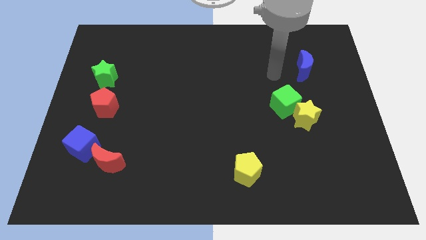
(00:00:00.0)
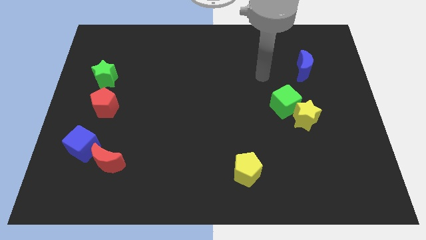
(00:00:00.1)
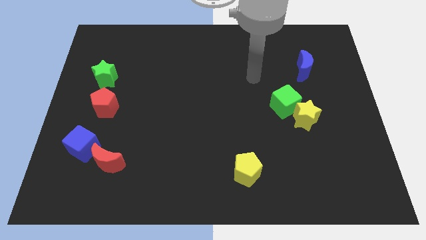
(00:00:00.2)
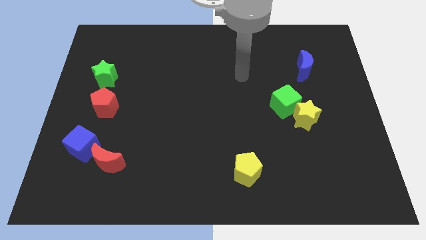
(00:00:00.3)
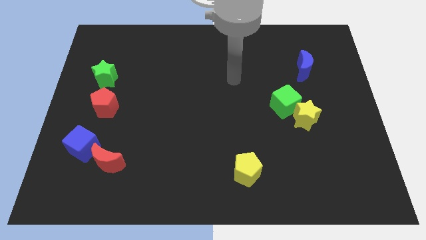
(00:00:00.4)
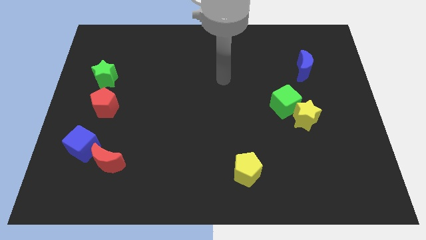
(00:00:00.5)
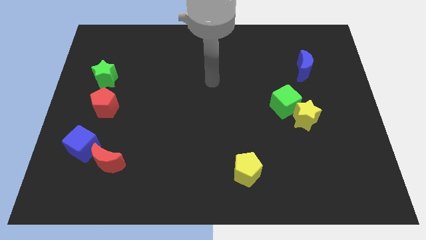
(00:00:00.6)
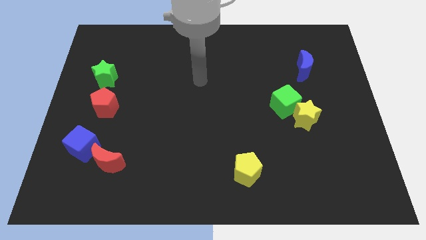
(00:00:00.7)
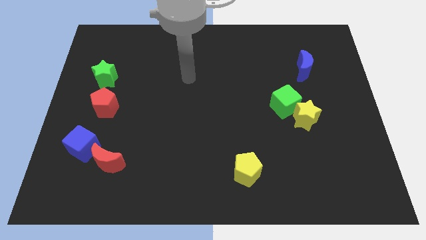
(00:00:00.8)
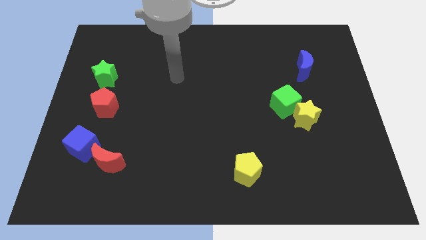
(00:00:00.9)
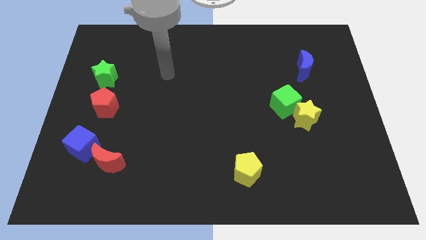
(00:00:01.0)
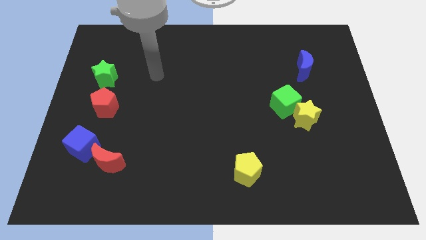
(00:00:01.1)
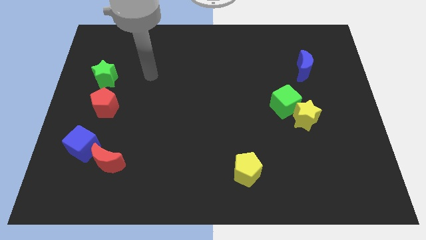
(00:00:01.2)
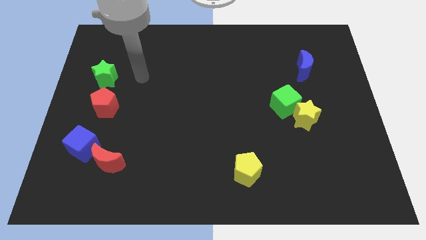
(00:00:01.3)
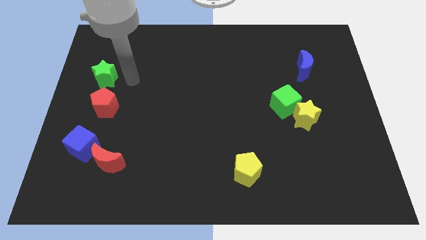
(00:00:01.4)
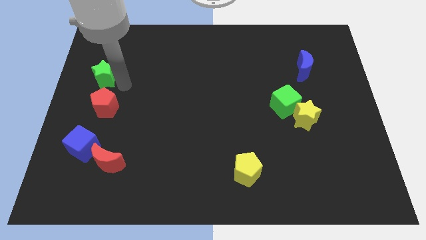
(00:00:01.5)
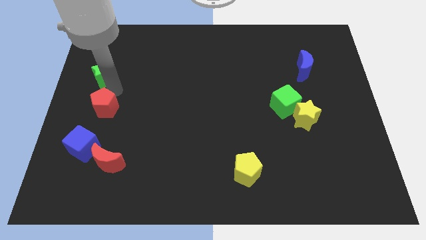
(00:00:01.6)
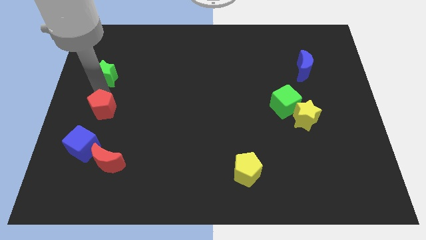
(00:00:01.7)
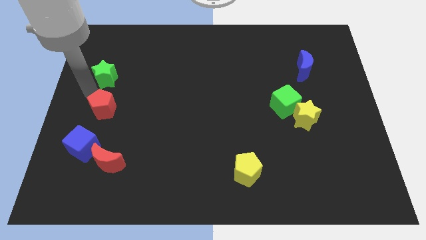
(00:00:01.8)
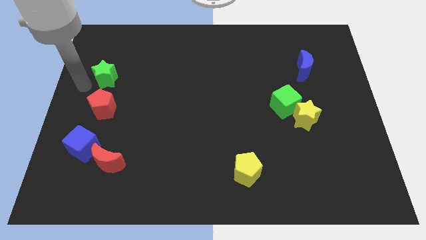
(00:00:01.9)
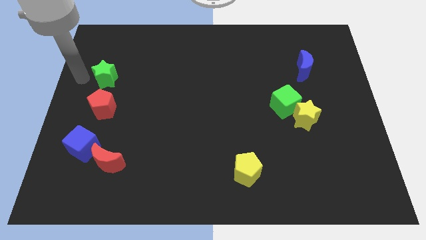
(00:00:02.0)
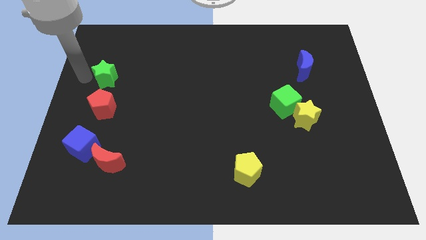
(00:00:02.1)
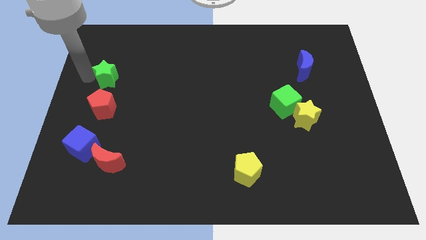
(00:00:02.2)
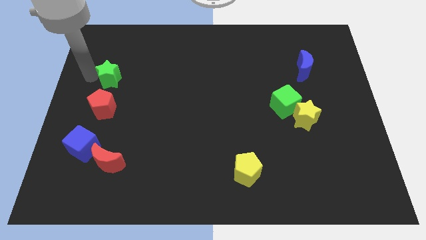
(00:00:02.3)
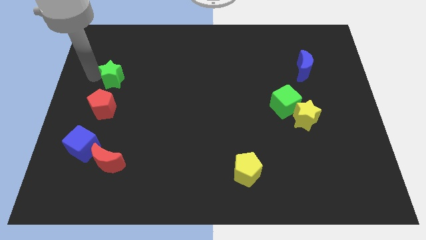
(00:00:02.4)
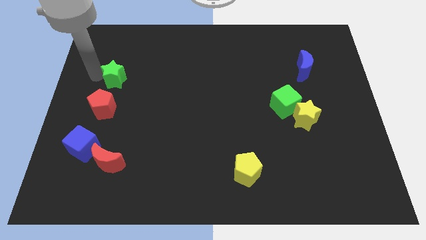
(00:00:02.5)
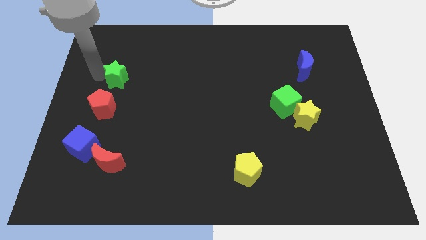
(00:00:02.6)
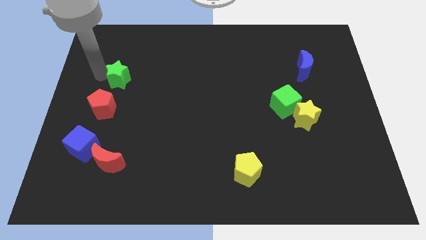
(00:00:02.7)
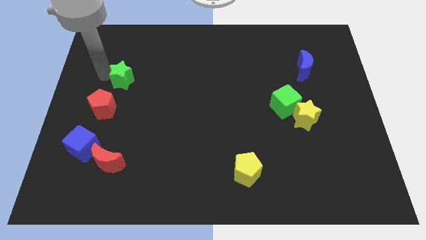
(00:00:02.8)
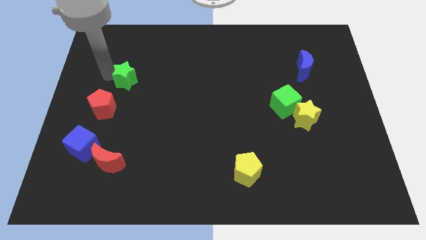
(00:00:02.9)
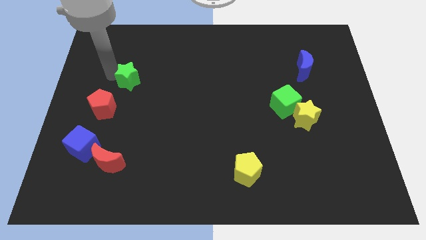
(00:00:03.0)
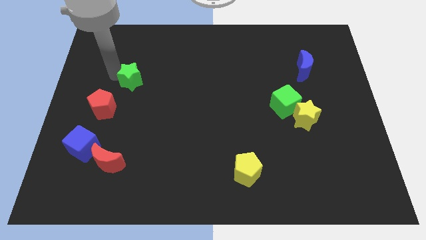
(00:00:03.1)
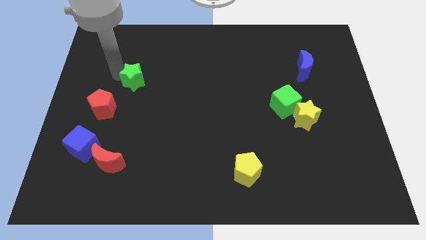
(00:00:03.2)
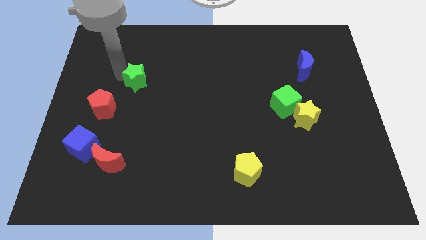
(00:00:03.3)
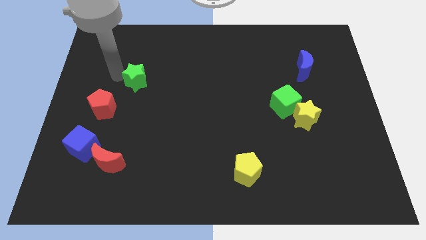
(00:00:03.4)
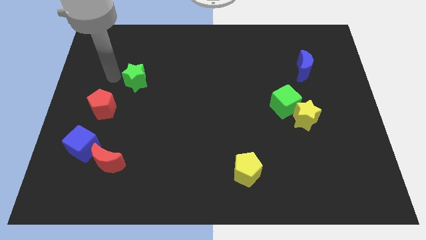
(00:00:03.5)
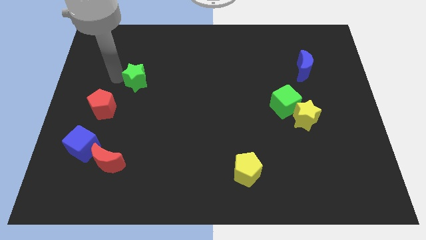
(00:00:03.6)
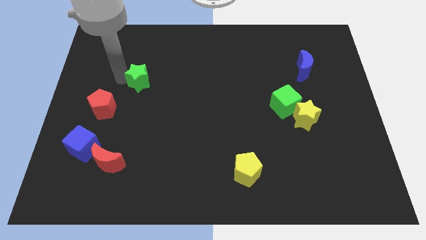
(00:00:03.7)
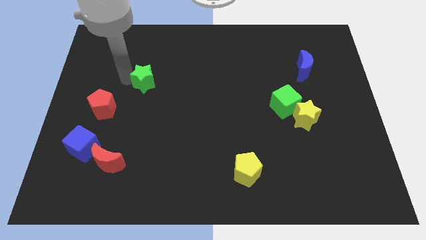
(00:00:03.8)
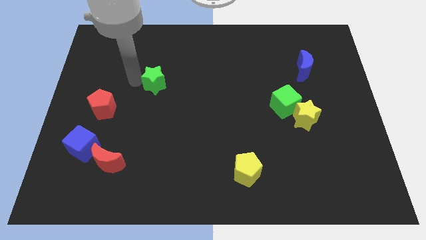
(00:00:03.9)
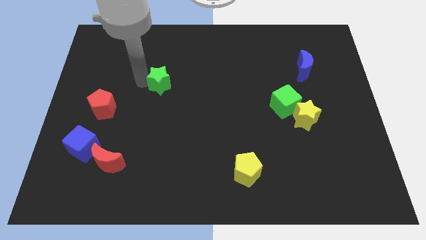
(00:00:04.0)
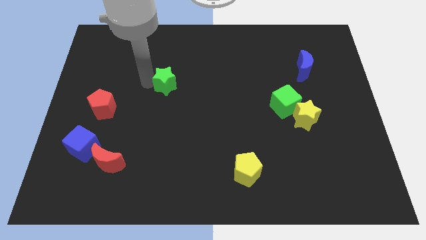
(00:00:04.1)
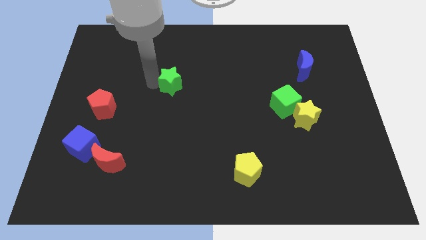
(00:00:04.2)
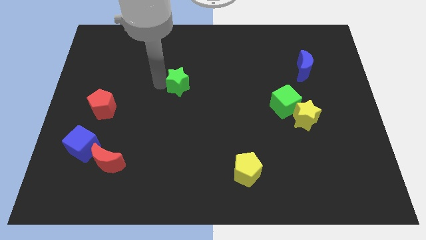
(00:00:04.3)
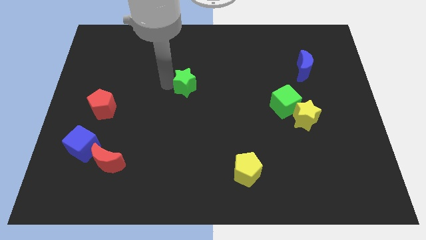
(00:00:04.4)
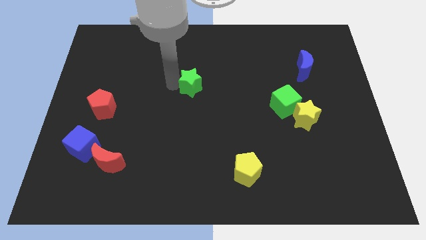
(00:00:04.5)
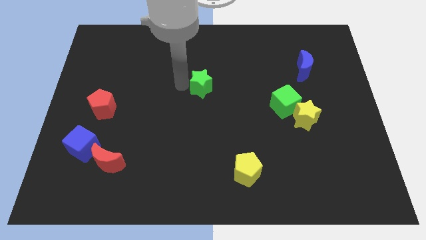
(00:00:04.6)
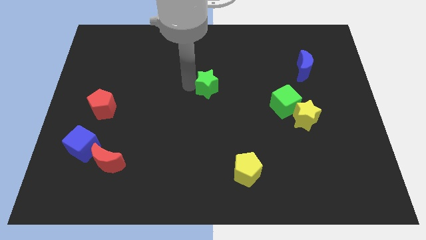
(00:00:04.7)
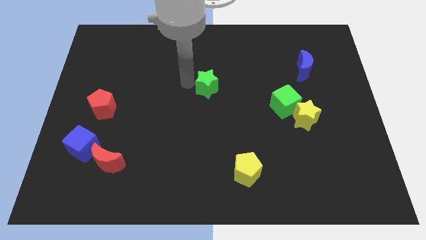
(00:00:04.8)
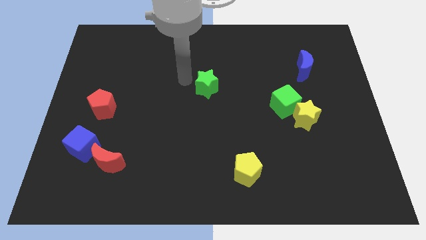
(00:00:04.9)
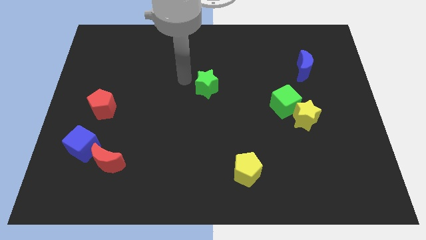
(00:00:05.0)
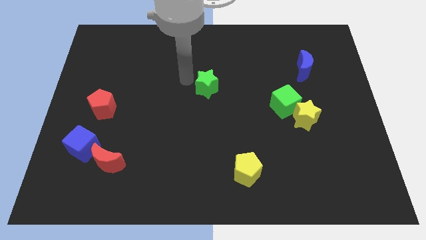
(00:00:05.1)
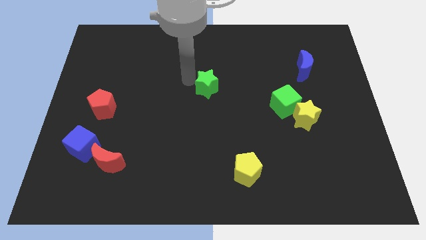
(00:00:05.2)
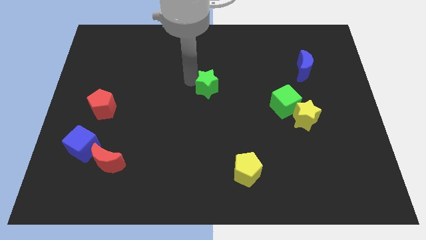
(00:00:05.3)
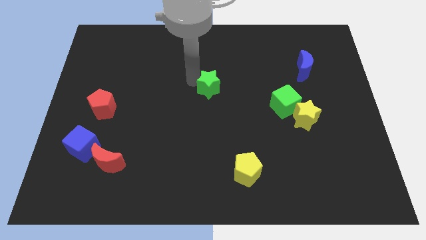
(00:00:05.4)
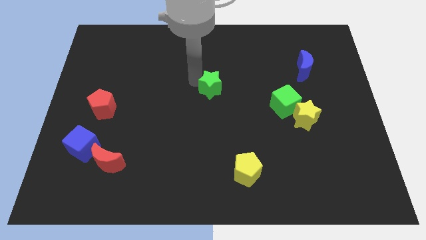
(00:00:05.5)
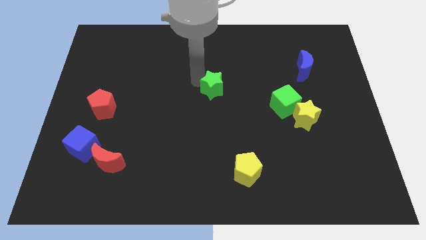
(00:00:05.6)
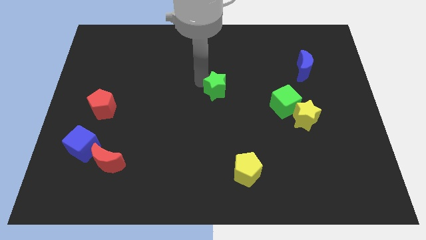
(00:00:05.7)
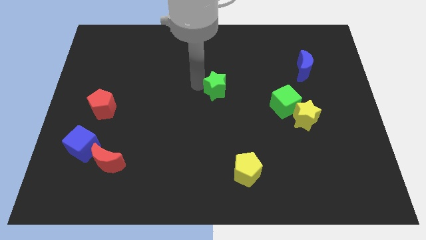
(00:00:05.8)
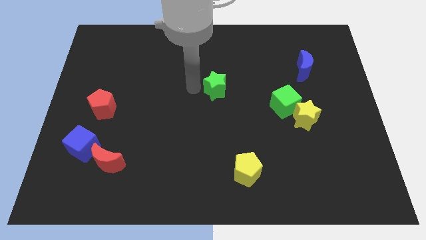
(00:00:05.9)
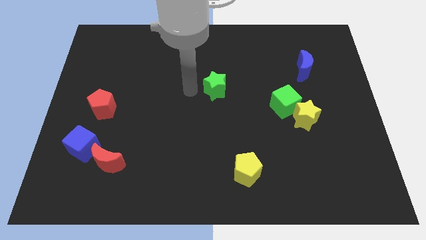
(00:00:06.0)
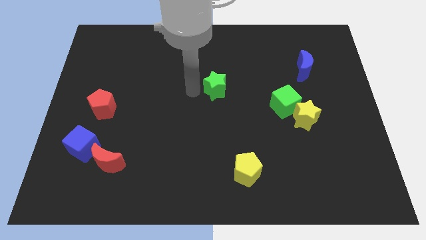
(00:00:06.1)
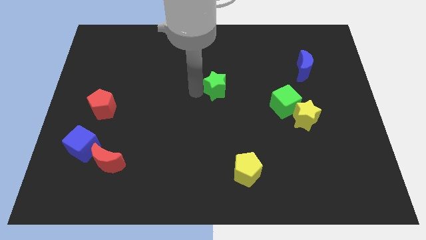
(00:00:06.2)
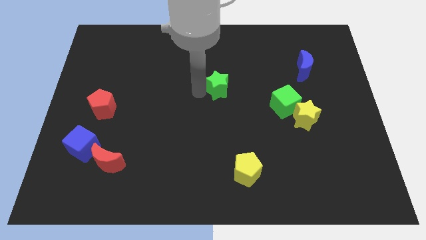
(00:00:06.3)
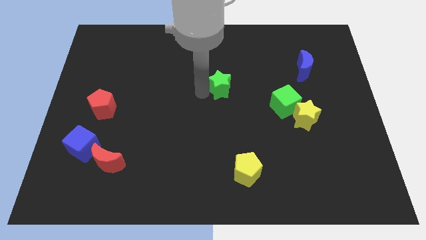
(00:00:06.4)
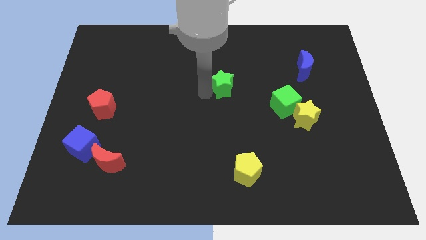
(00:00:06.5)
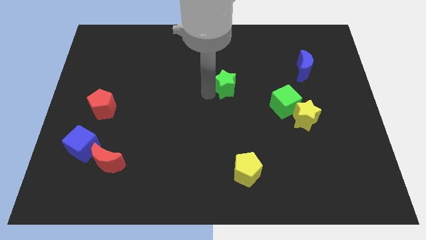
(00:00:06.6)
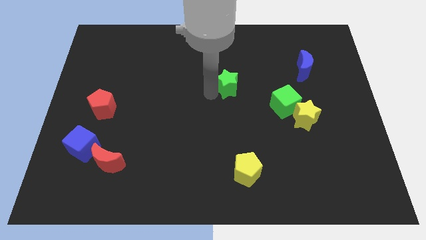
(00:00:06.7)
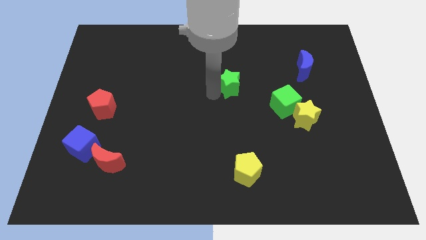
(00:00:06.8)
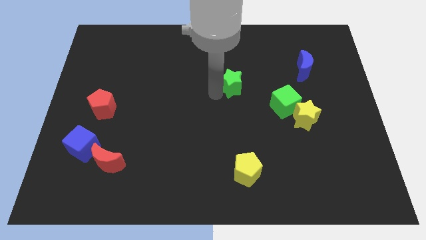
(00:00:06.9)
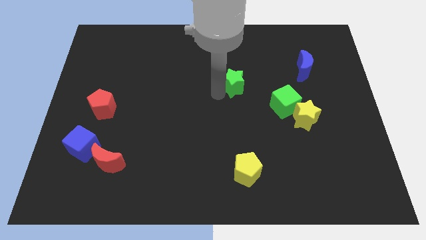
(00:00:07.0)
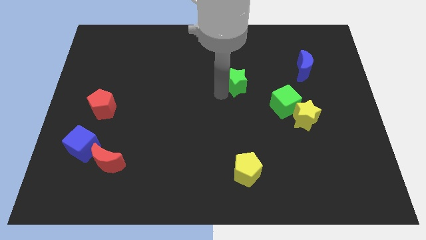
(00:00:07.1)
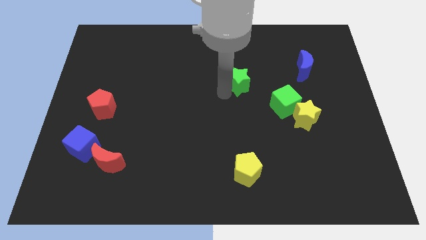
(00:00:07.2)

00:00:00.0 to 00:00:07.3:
put the green star to the top left of the green cube
